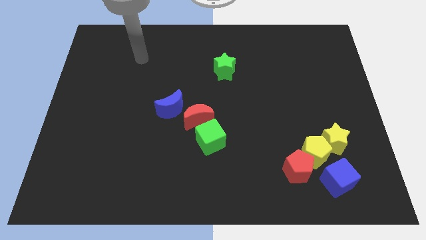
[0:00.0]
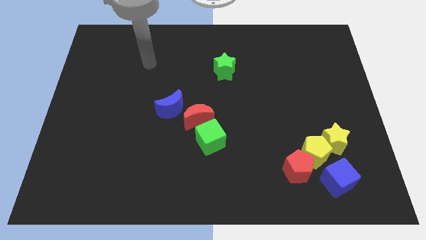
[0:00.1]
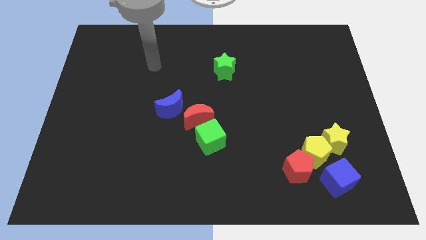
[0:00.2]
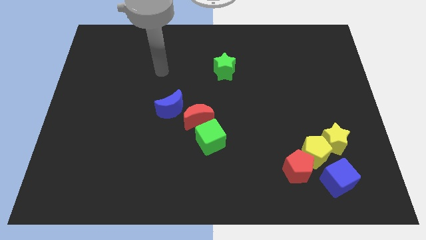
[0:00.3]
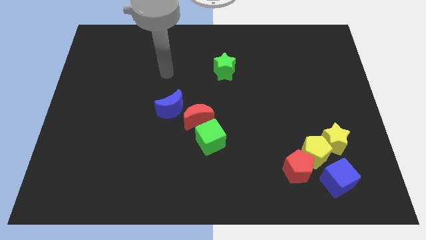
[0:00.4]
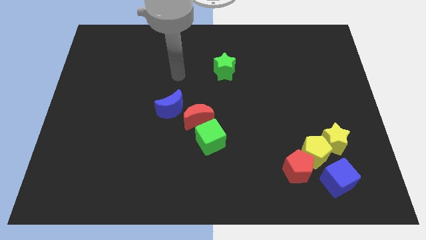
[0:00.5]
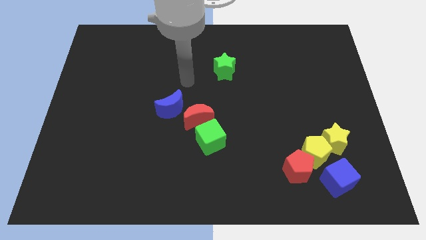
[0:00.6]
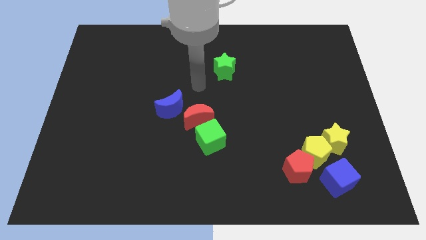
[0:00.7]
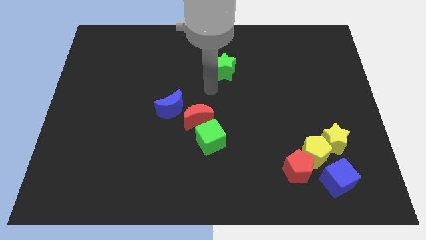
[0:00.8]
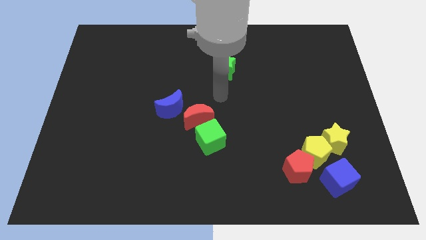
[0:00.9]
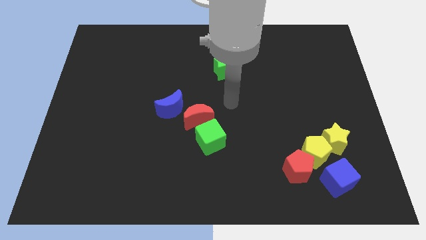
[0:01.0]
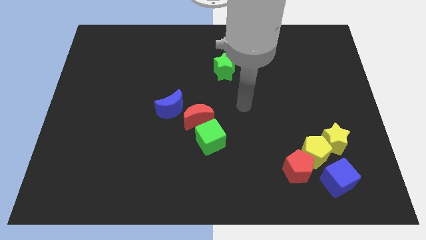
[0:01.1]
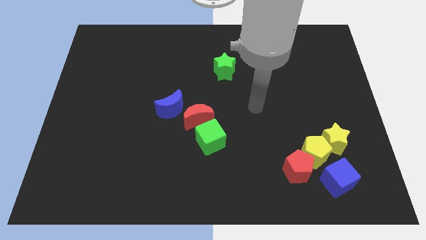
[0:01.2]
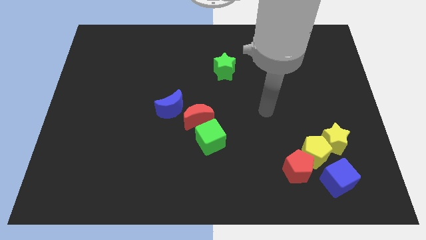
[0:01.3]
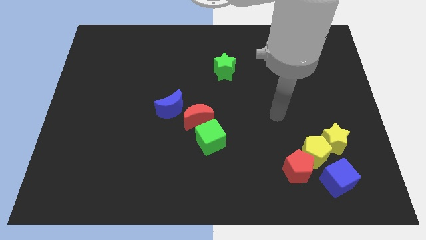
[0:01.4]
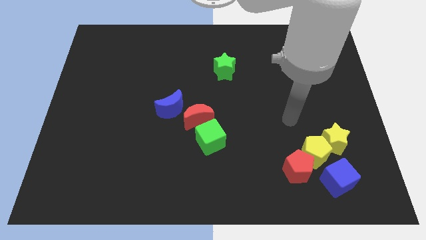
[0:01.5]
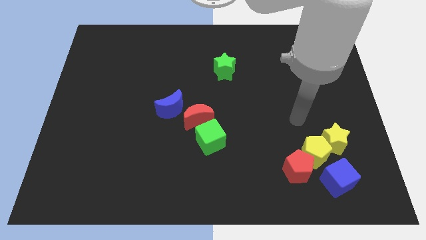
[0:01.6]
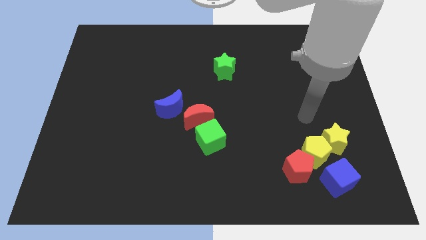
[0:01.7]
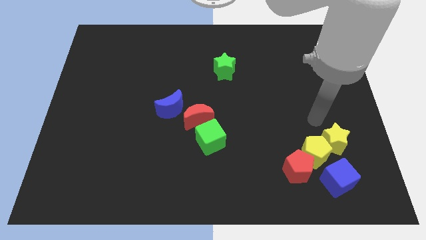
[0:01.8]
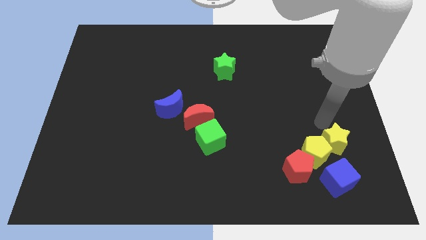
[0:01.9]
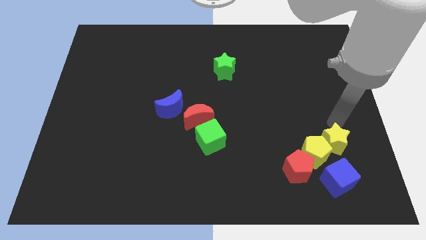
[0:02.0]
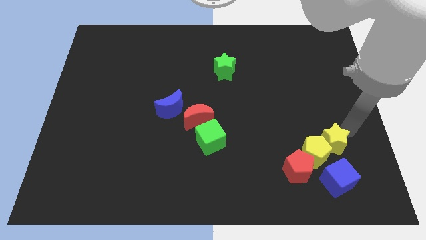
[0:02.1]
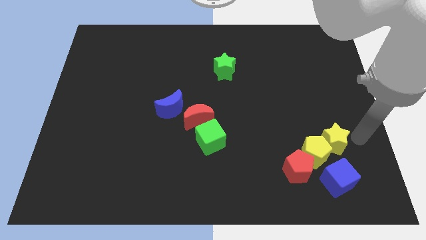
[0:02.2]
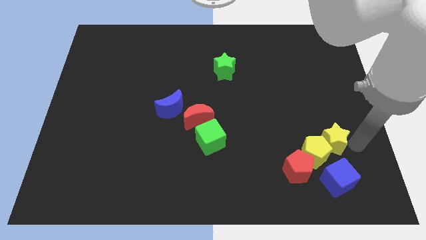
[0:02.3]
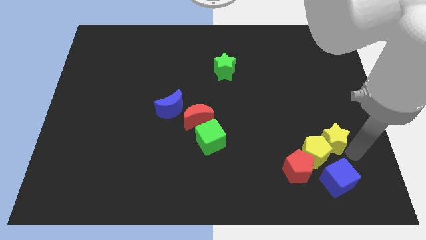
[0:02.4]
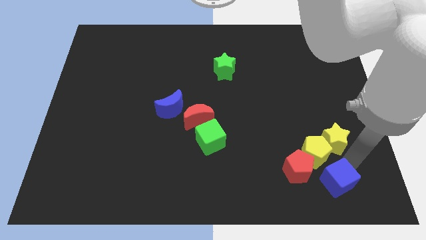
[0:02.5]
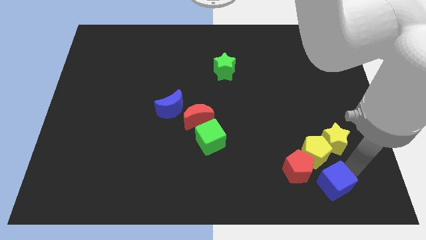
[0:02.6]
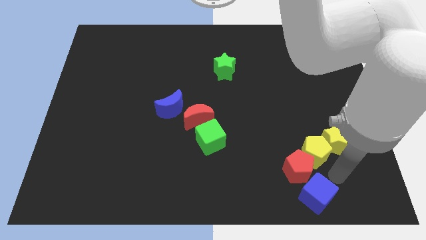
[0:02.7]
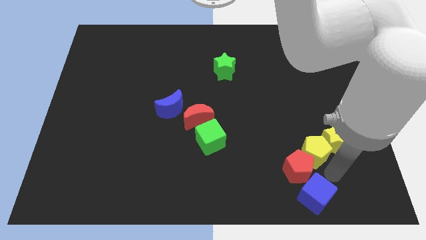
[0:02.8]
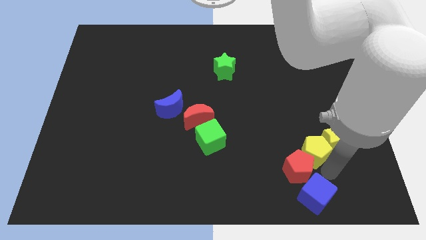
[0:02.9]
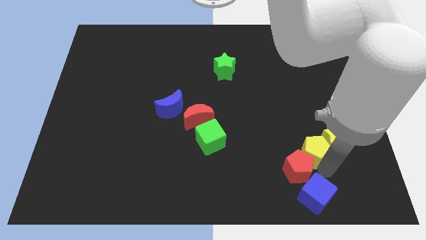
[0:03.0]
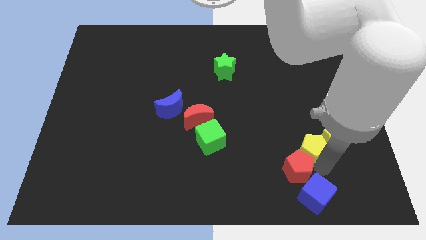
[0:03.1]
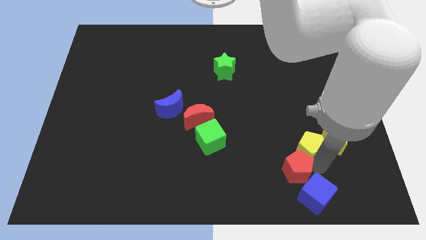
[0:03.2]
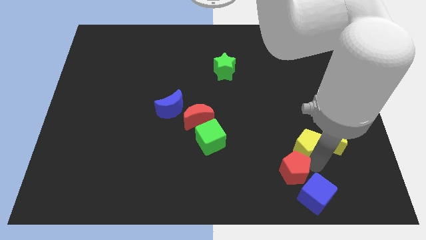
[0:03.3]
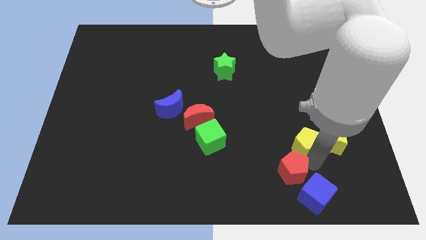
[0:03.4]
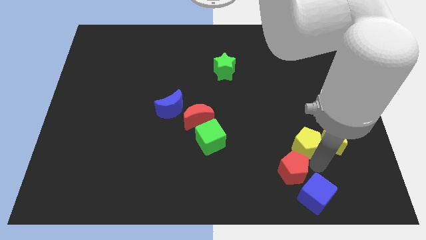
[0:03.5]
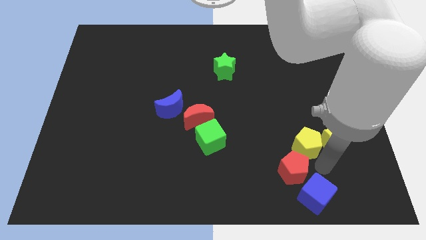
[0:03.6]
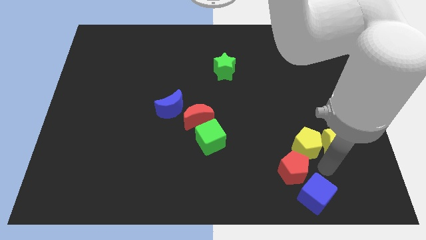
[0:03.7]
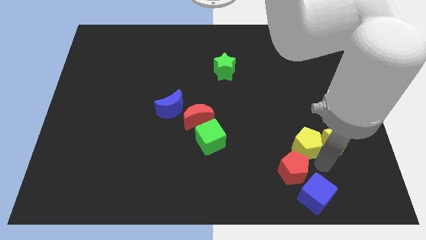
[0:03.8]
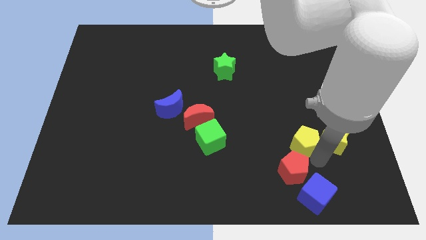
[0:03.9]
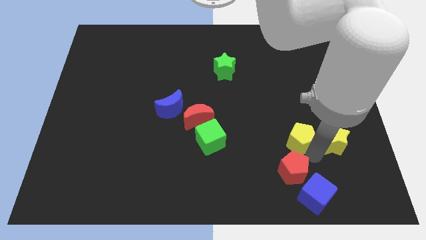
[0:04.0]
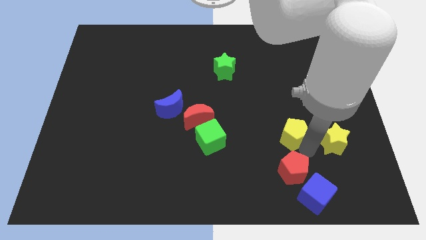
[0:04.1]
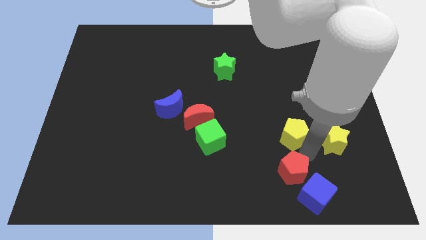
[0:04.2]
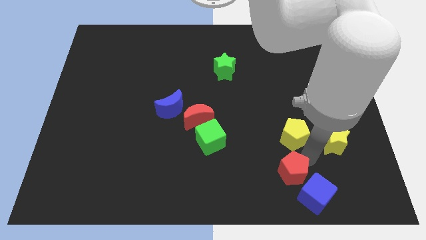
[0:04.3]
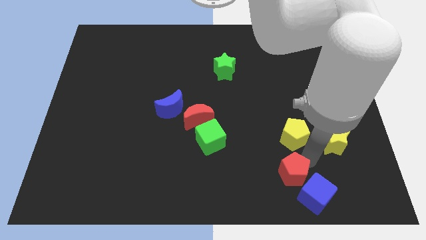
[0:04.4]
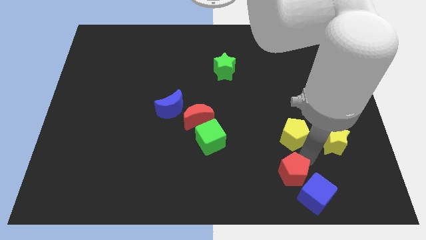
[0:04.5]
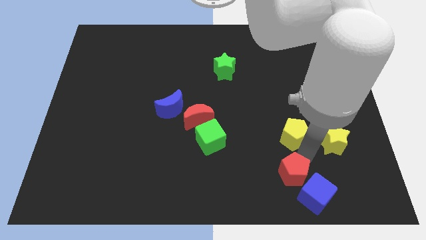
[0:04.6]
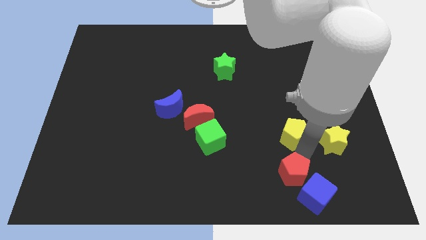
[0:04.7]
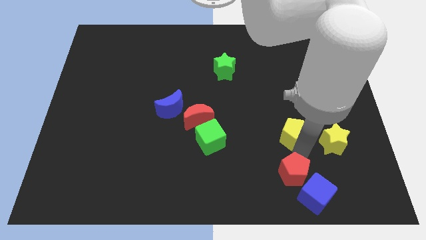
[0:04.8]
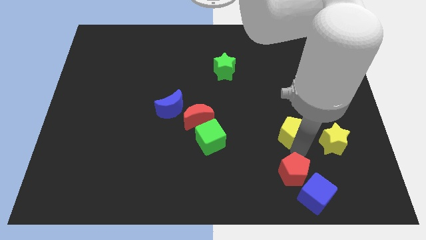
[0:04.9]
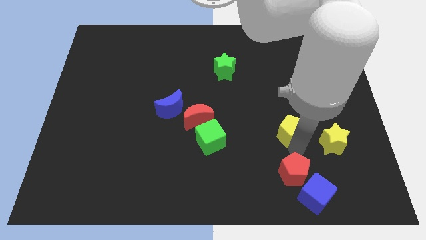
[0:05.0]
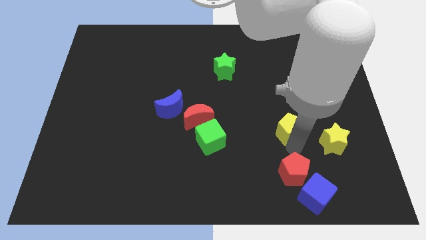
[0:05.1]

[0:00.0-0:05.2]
pull the yellow pentagon apart from the red pentagon, yellow star, and blue cube

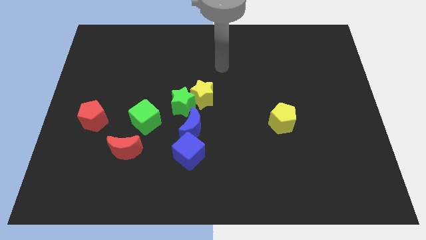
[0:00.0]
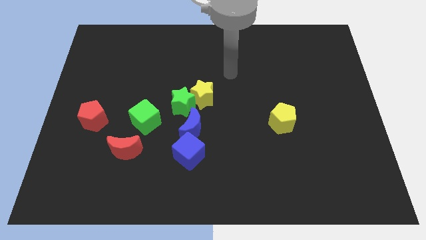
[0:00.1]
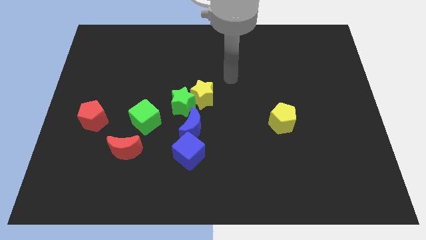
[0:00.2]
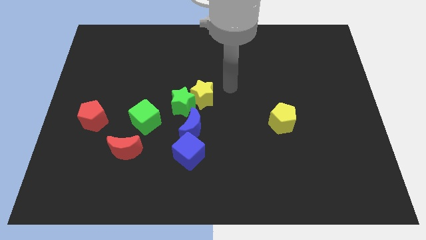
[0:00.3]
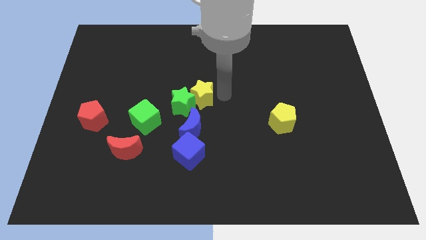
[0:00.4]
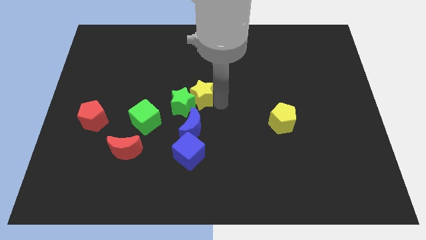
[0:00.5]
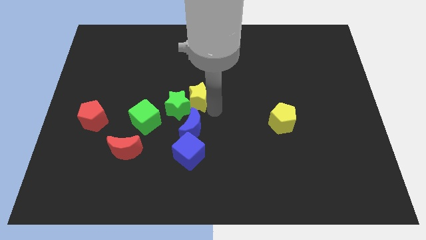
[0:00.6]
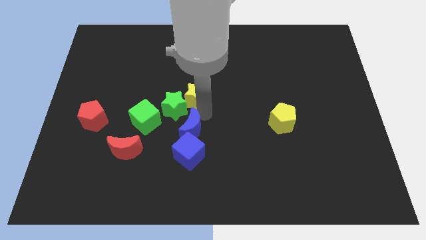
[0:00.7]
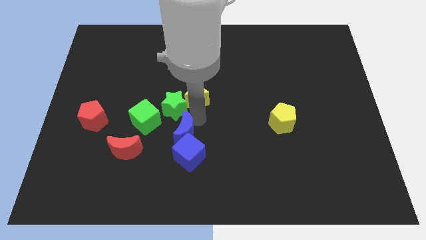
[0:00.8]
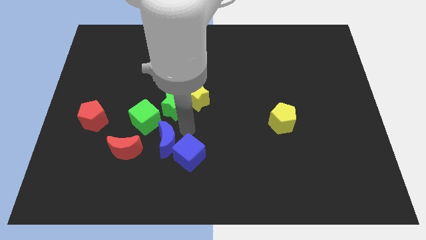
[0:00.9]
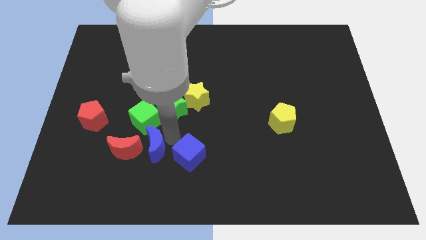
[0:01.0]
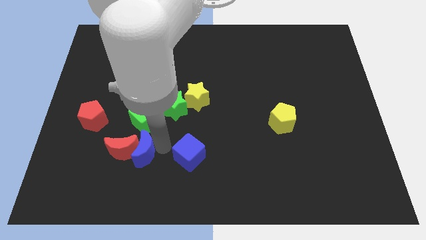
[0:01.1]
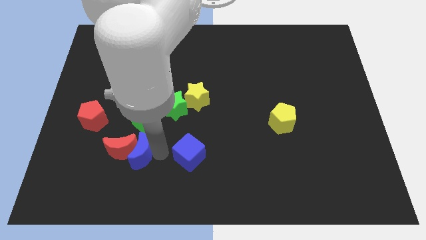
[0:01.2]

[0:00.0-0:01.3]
move the blue cube away from the blue moon

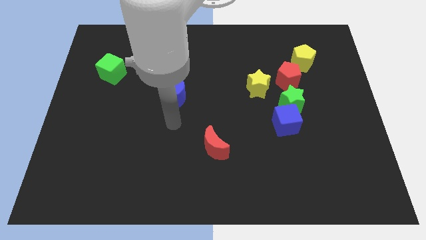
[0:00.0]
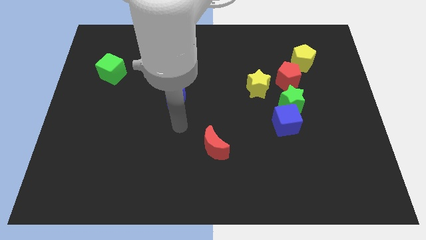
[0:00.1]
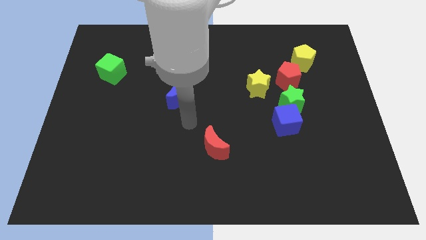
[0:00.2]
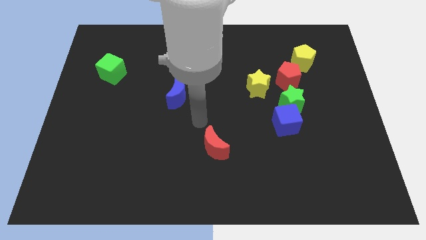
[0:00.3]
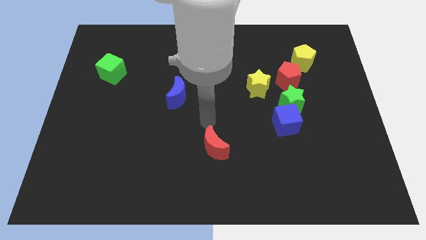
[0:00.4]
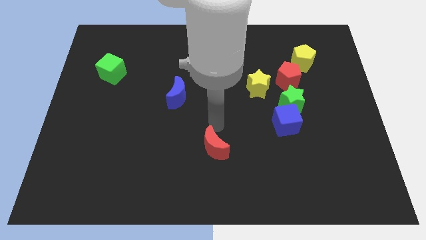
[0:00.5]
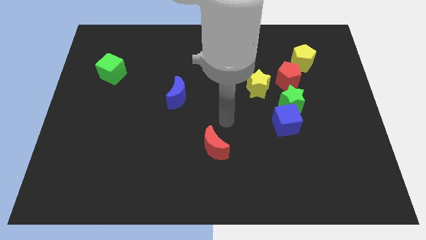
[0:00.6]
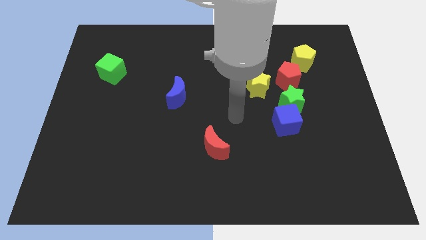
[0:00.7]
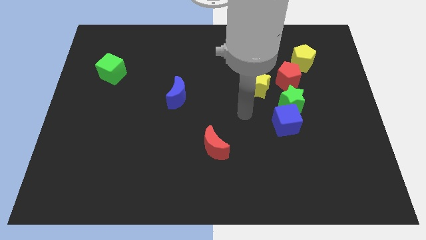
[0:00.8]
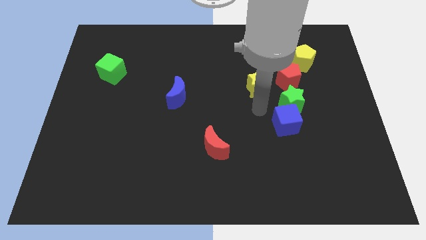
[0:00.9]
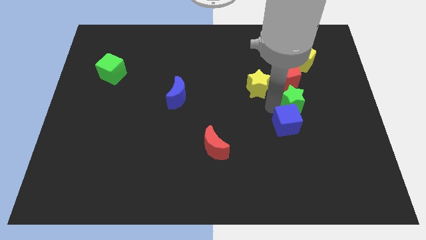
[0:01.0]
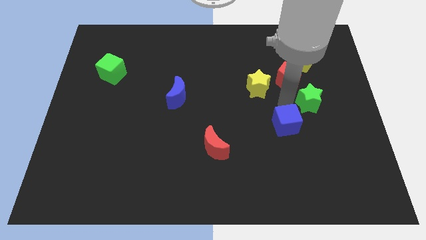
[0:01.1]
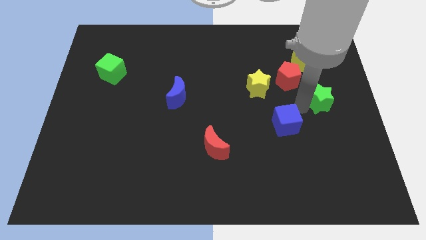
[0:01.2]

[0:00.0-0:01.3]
move the blue cube away from the green star

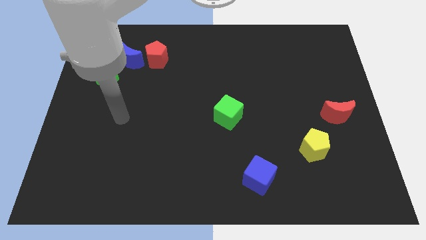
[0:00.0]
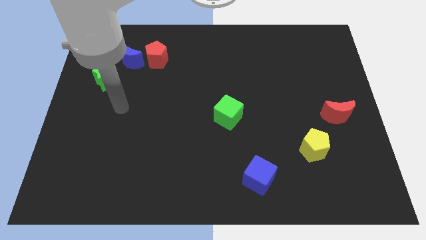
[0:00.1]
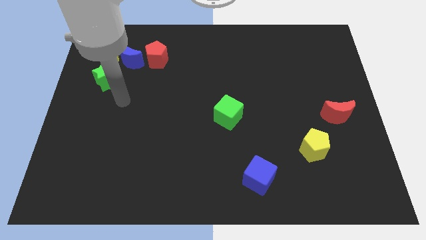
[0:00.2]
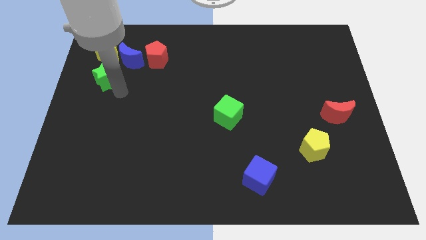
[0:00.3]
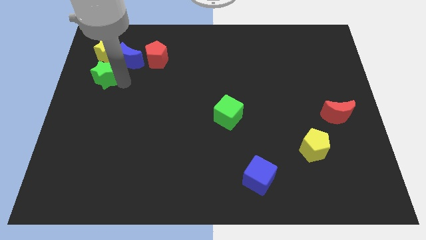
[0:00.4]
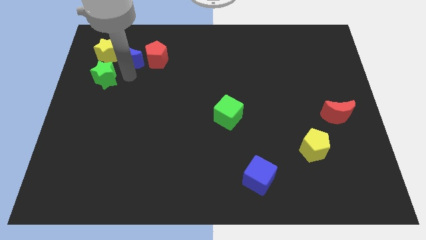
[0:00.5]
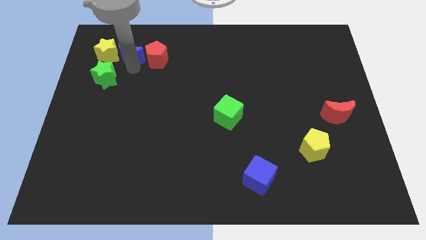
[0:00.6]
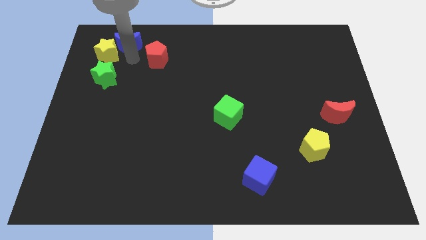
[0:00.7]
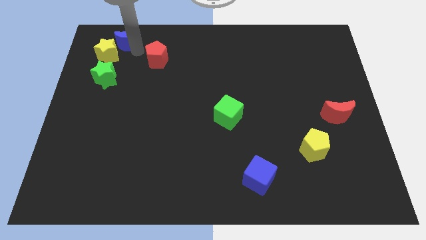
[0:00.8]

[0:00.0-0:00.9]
separate the red pentagon from the blue moon

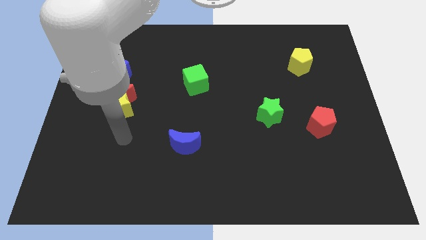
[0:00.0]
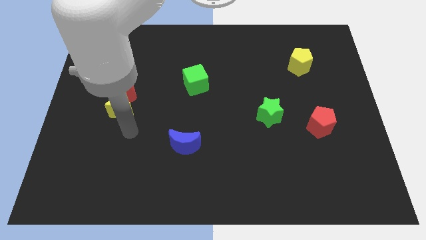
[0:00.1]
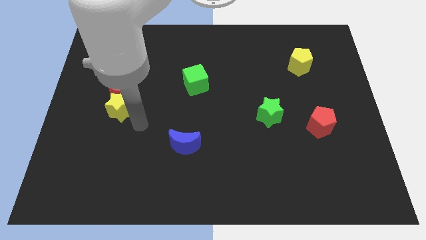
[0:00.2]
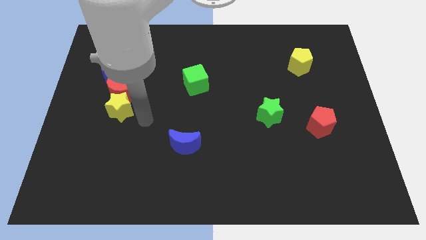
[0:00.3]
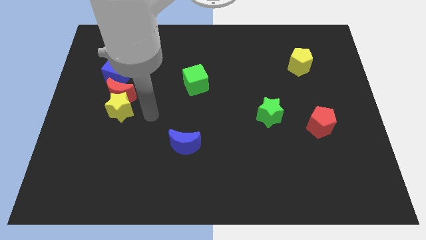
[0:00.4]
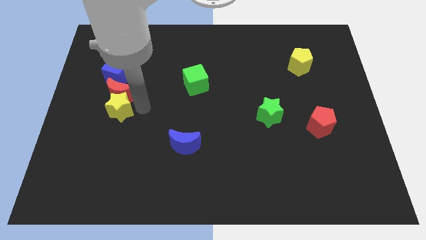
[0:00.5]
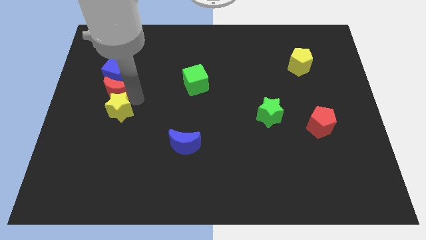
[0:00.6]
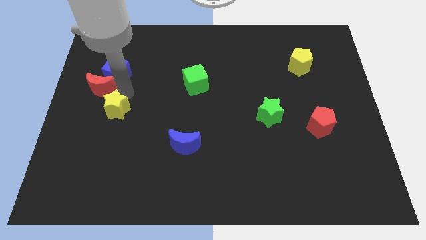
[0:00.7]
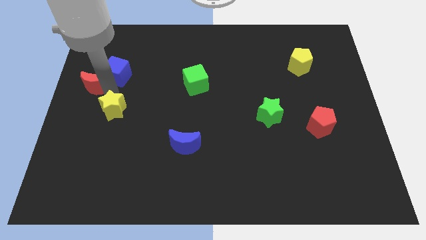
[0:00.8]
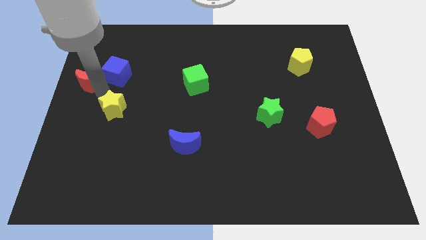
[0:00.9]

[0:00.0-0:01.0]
pull the yellow star apart from the red moon
